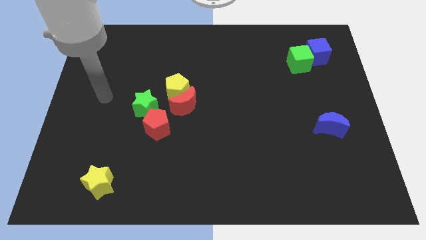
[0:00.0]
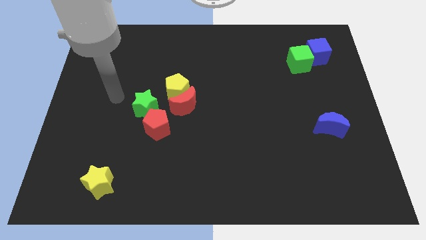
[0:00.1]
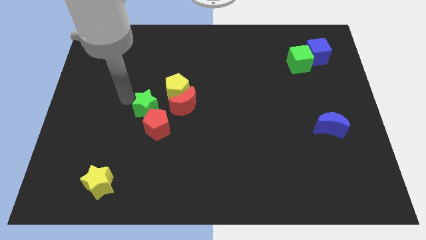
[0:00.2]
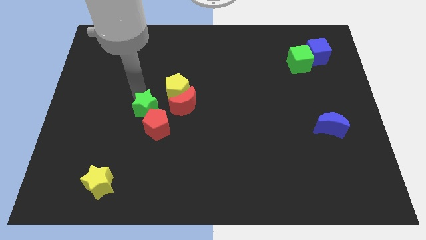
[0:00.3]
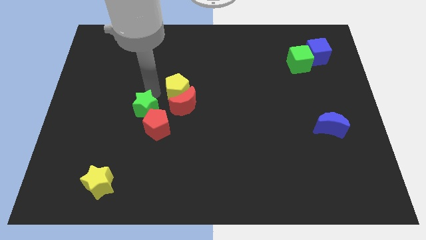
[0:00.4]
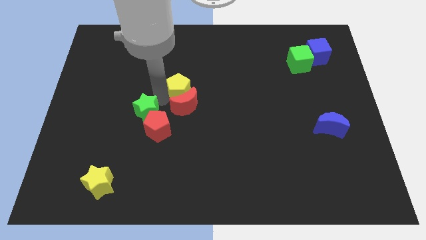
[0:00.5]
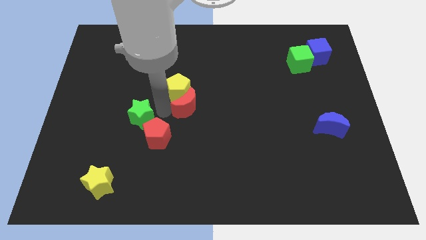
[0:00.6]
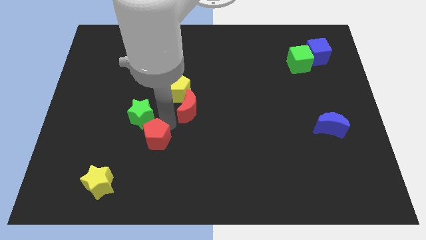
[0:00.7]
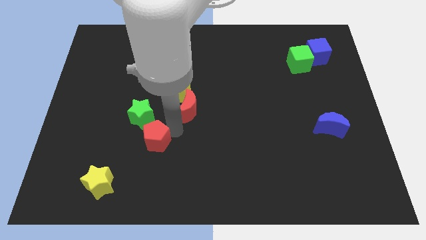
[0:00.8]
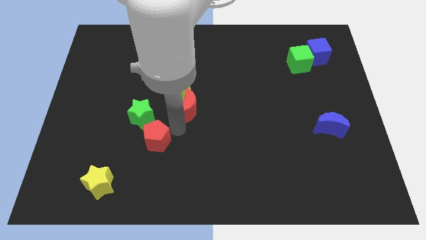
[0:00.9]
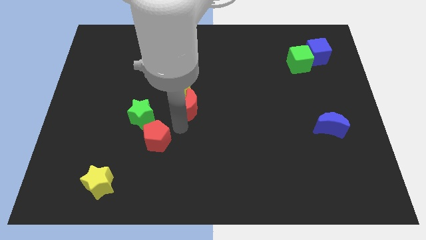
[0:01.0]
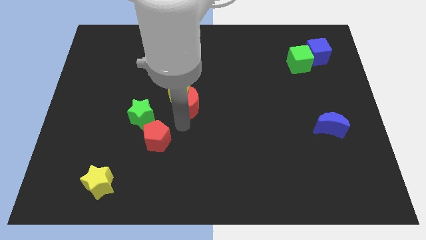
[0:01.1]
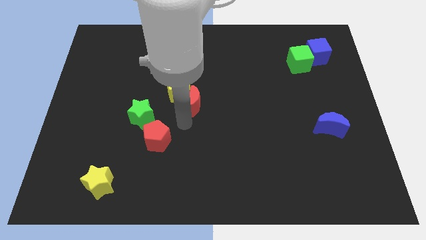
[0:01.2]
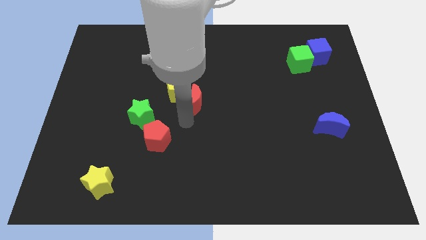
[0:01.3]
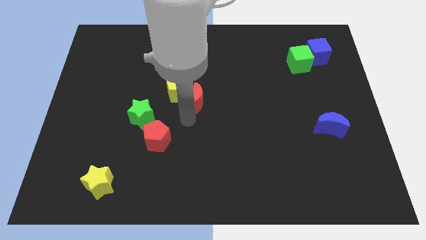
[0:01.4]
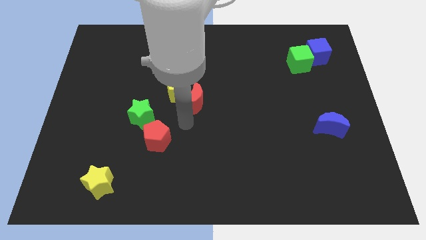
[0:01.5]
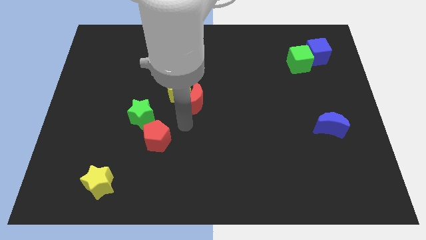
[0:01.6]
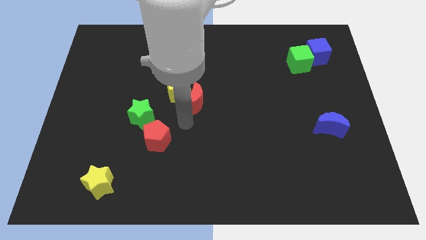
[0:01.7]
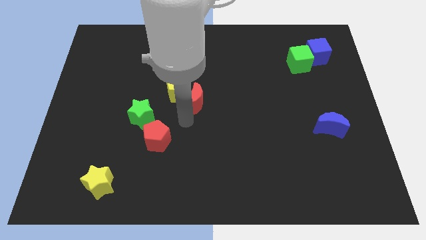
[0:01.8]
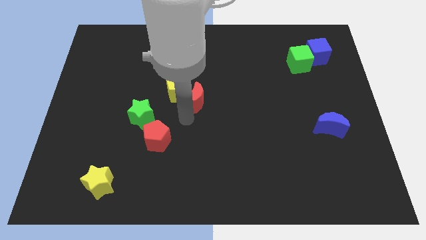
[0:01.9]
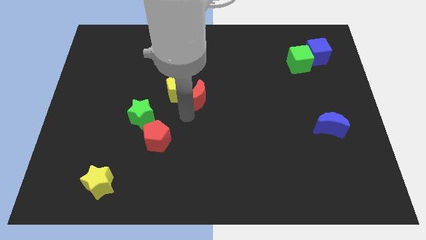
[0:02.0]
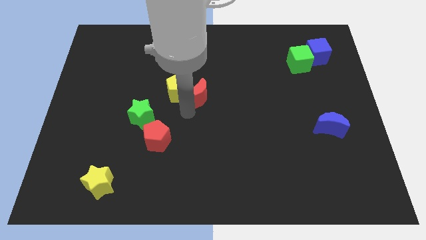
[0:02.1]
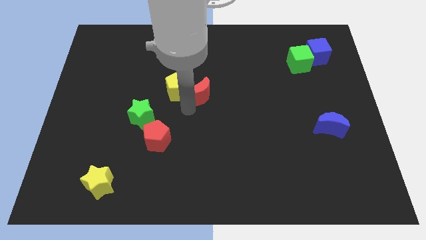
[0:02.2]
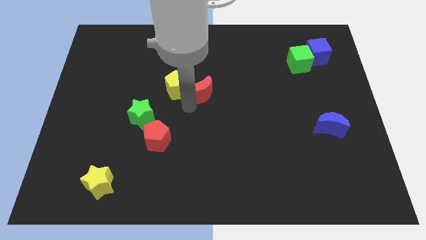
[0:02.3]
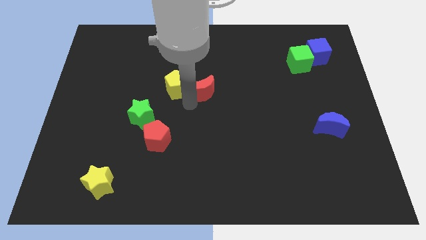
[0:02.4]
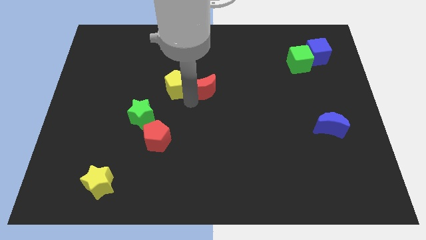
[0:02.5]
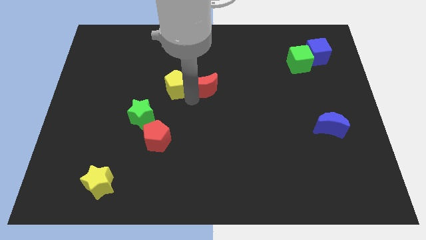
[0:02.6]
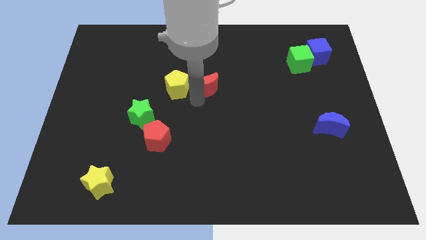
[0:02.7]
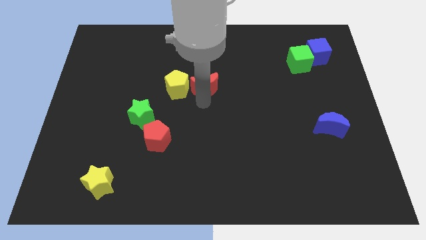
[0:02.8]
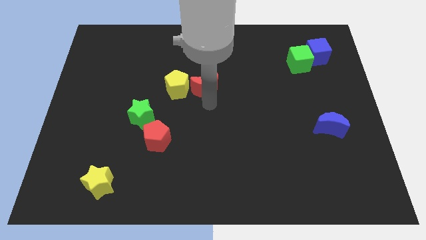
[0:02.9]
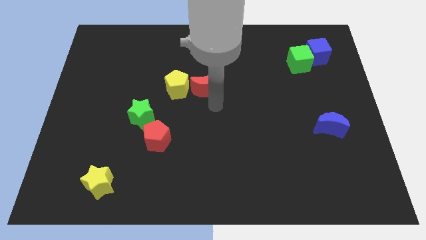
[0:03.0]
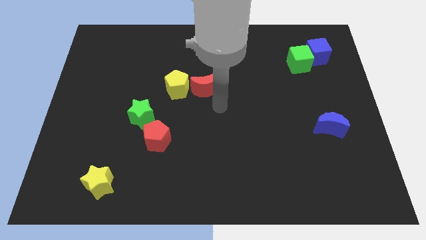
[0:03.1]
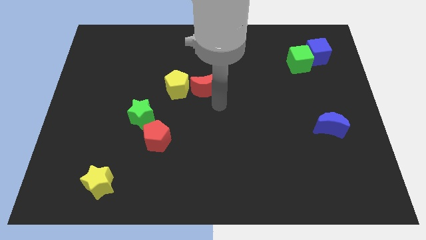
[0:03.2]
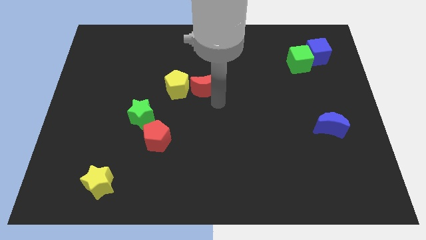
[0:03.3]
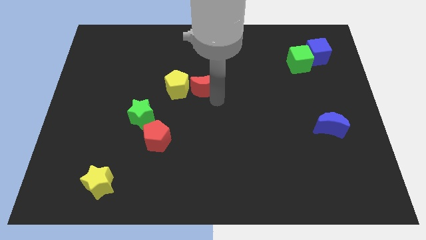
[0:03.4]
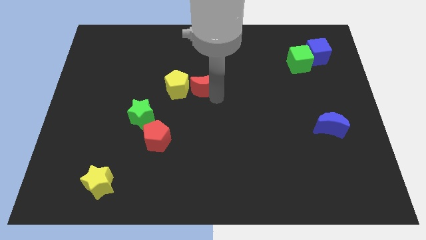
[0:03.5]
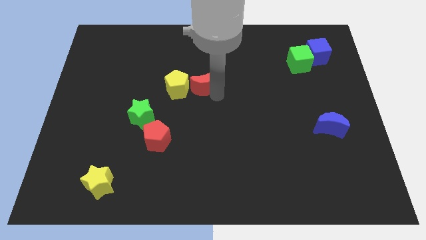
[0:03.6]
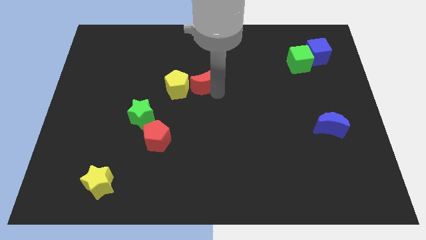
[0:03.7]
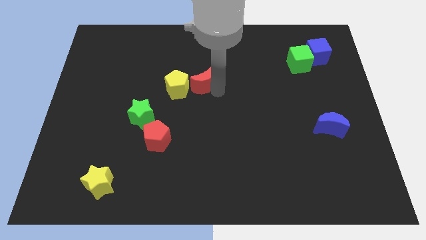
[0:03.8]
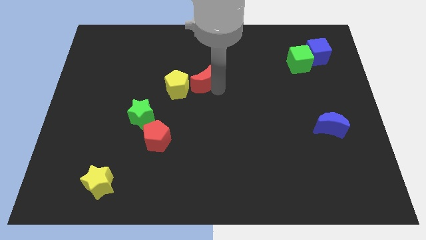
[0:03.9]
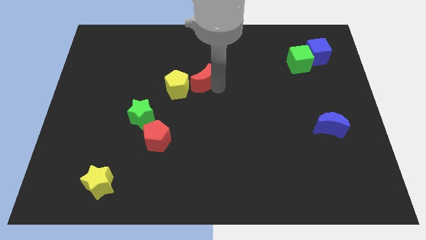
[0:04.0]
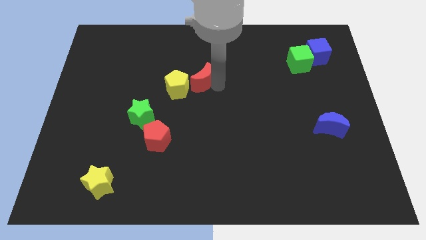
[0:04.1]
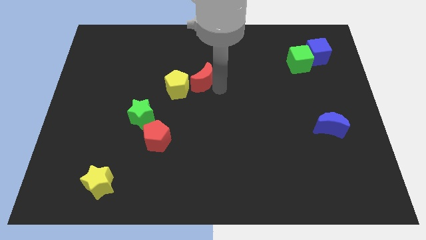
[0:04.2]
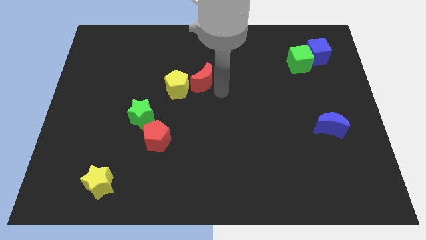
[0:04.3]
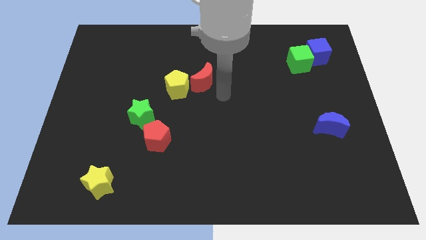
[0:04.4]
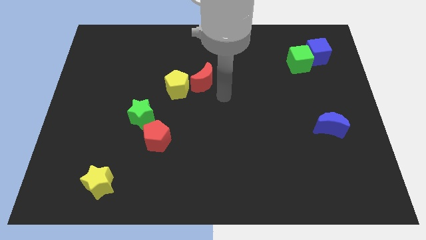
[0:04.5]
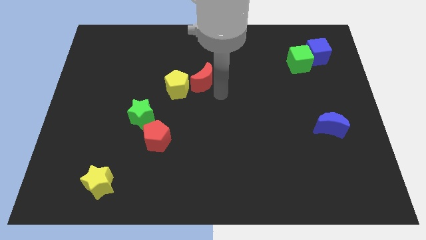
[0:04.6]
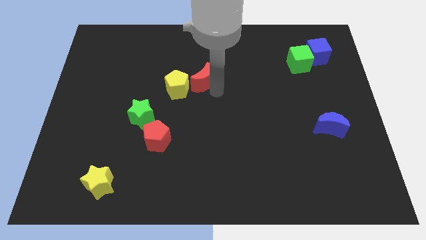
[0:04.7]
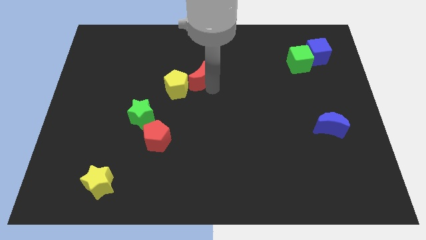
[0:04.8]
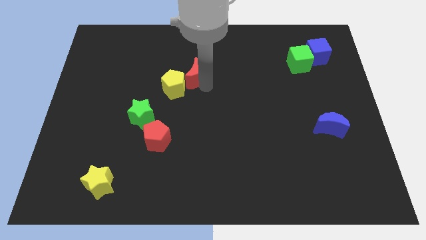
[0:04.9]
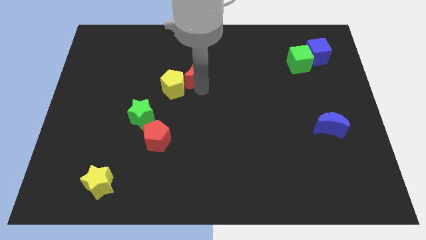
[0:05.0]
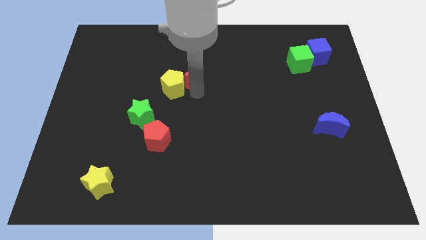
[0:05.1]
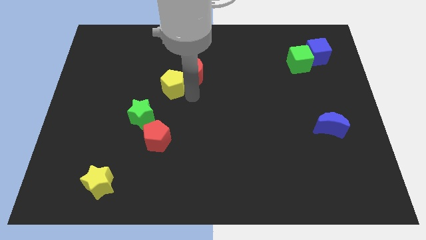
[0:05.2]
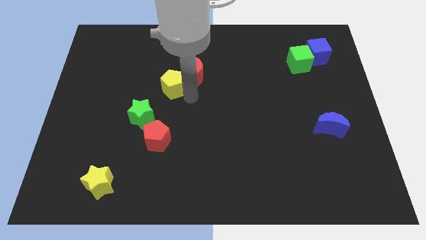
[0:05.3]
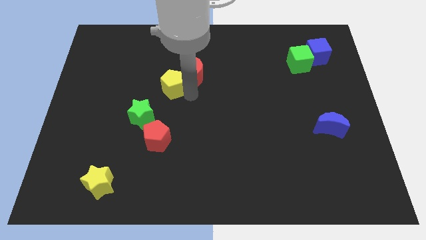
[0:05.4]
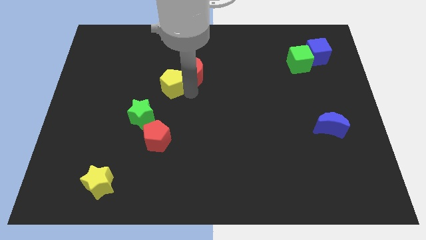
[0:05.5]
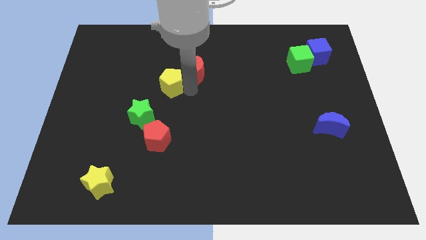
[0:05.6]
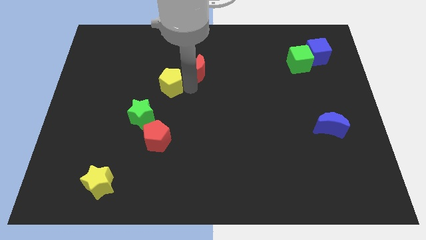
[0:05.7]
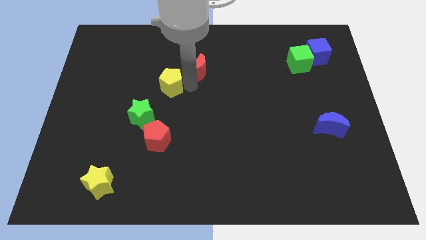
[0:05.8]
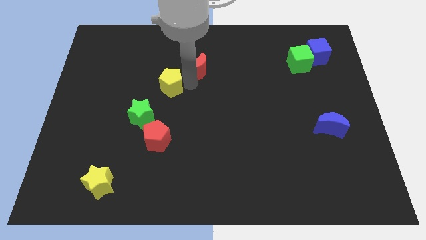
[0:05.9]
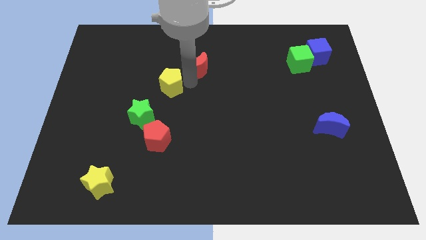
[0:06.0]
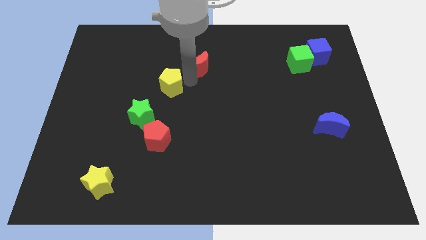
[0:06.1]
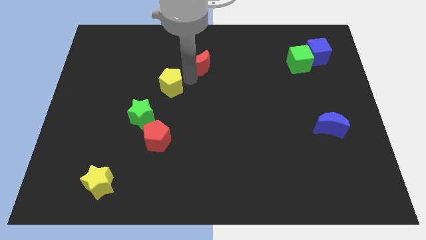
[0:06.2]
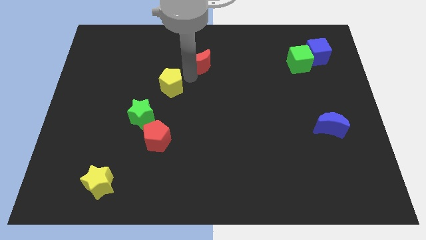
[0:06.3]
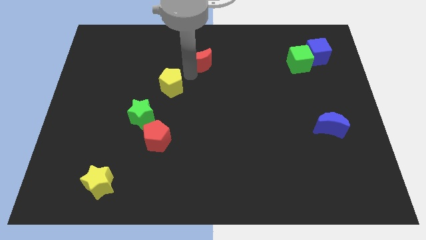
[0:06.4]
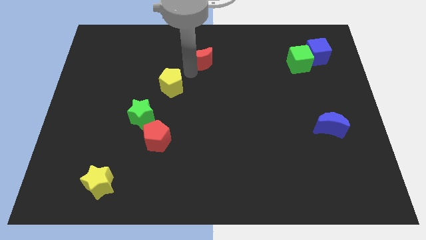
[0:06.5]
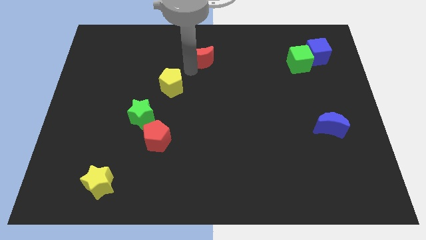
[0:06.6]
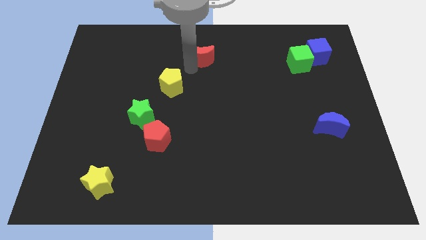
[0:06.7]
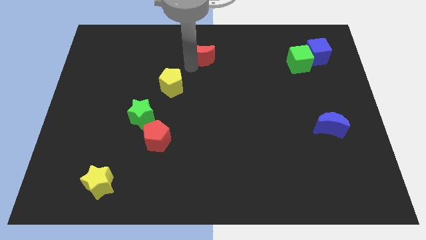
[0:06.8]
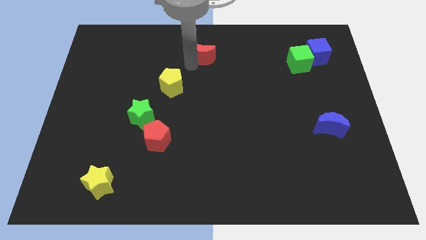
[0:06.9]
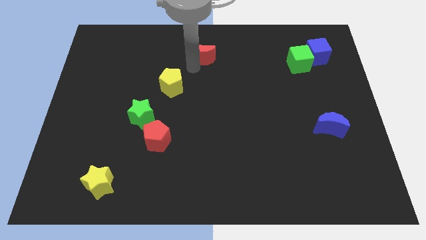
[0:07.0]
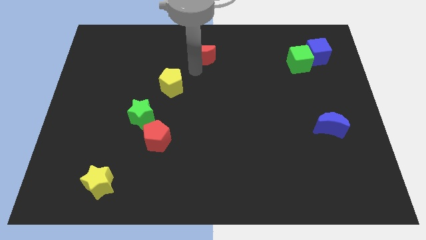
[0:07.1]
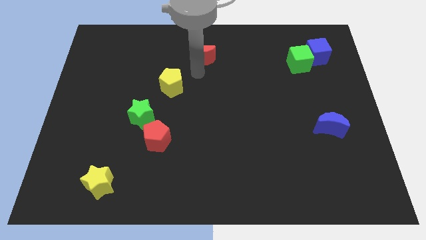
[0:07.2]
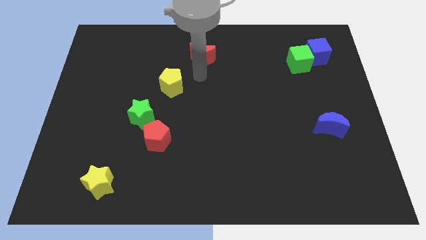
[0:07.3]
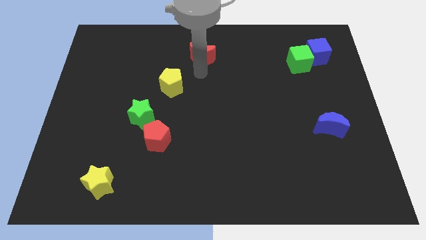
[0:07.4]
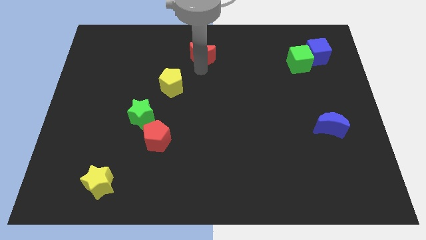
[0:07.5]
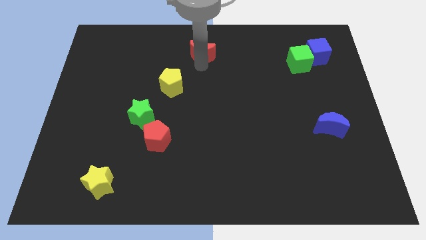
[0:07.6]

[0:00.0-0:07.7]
put the red moon to the top side
